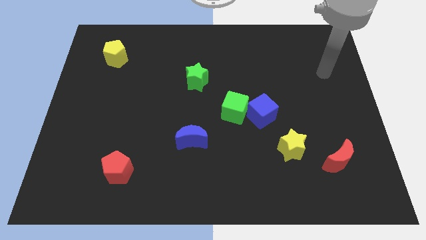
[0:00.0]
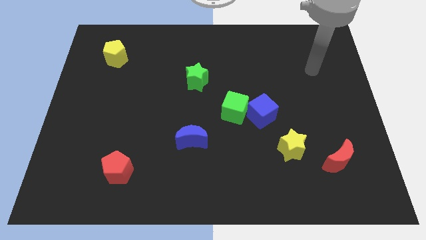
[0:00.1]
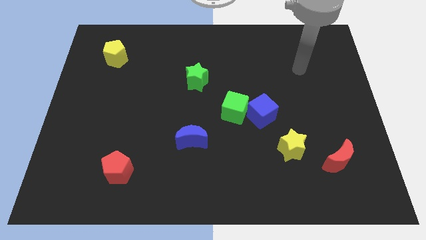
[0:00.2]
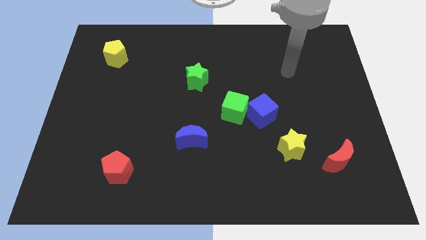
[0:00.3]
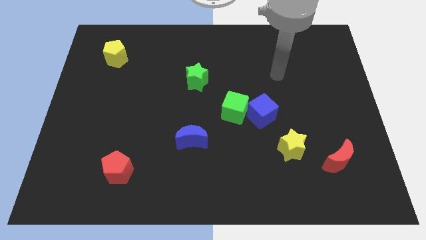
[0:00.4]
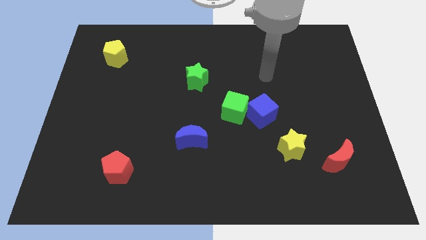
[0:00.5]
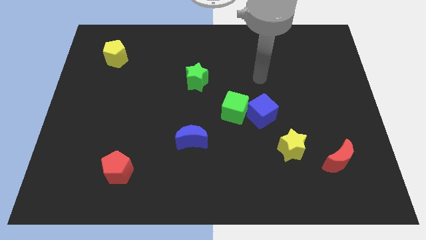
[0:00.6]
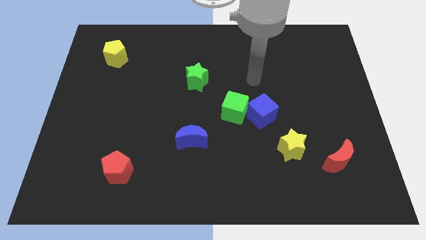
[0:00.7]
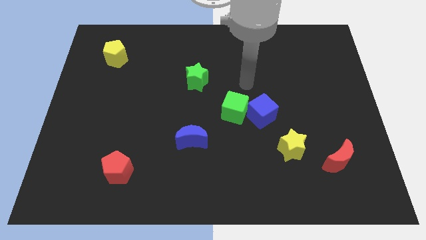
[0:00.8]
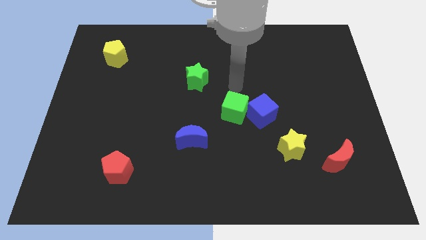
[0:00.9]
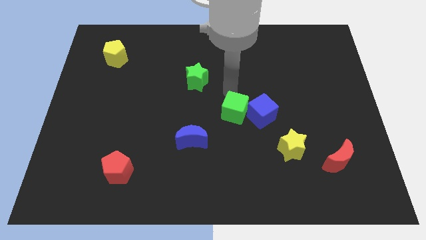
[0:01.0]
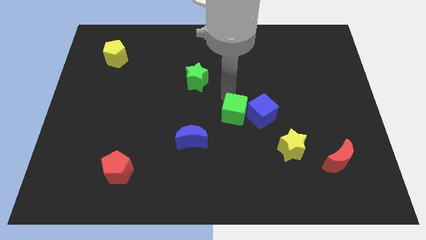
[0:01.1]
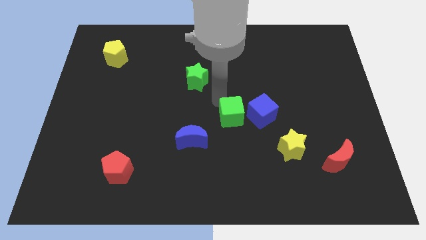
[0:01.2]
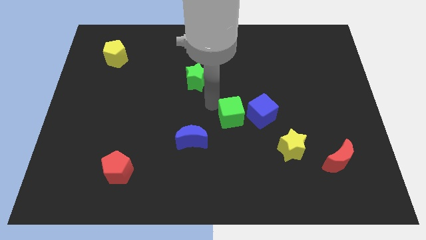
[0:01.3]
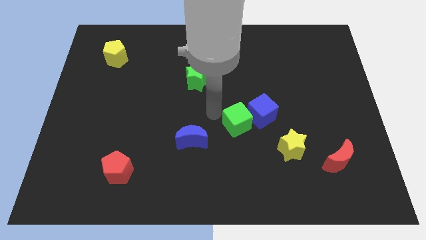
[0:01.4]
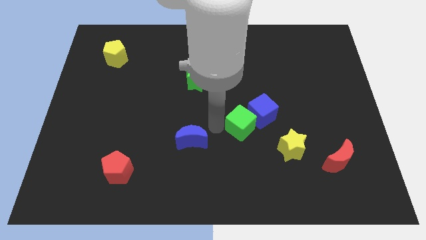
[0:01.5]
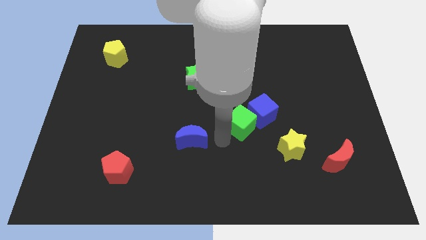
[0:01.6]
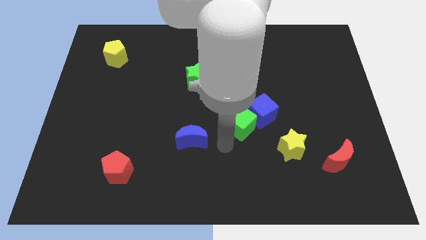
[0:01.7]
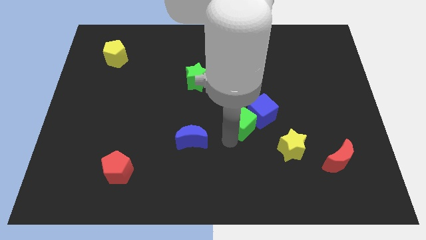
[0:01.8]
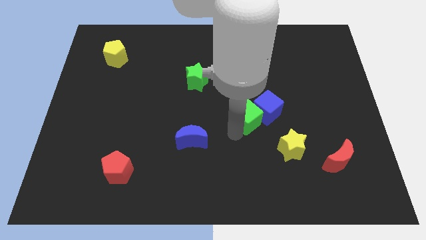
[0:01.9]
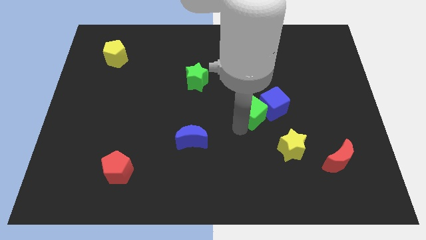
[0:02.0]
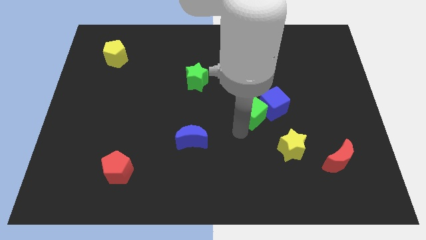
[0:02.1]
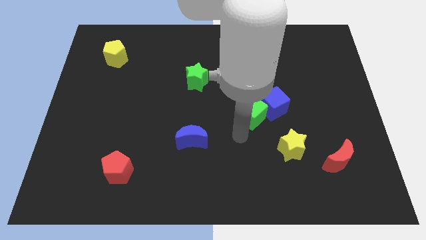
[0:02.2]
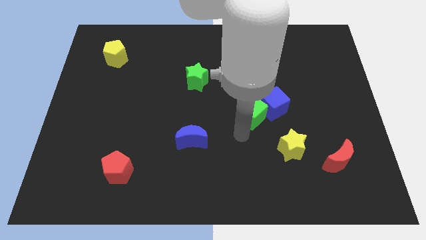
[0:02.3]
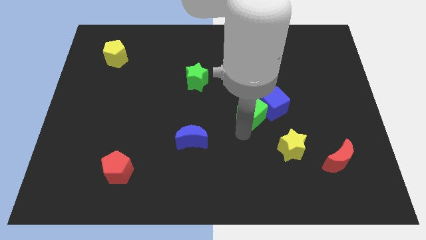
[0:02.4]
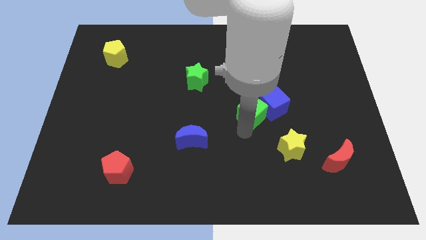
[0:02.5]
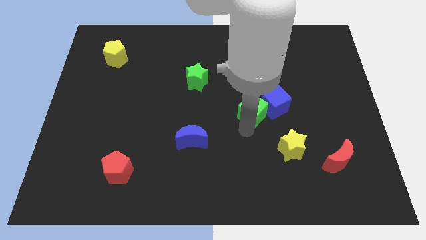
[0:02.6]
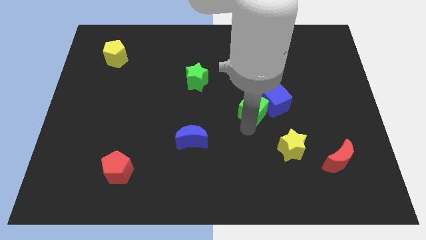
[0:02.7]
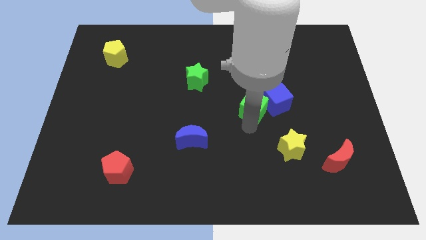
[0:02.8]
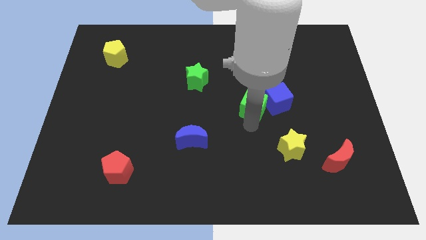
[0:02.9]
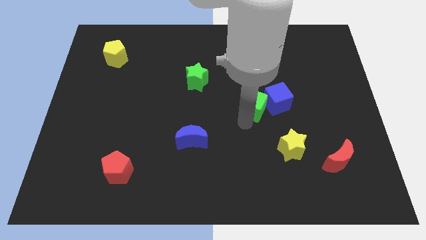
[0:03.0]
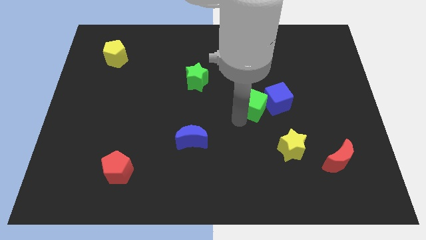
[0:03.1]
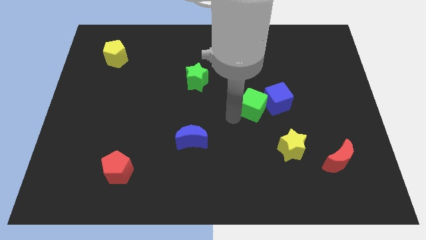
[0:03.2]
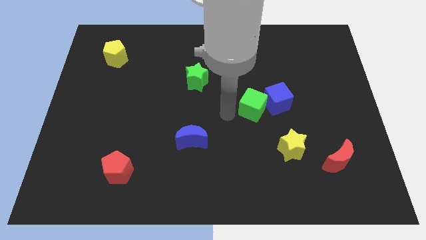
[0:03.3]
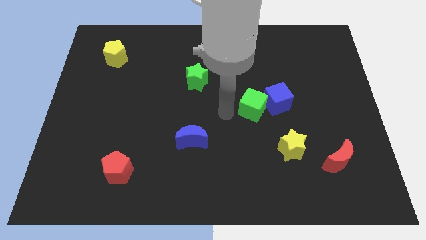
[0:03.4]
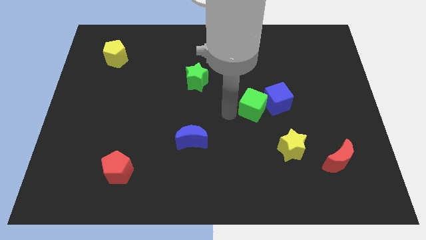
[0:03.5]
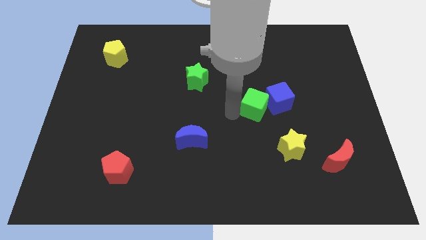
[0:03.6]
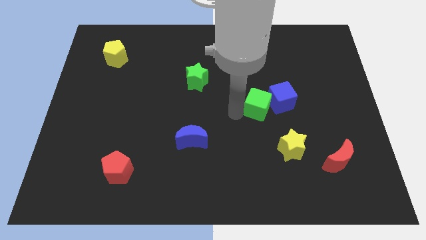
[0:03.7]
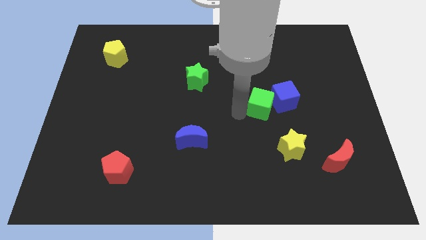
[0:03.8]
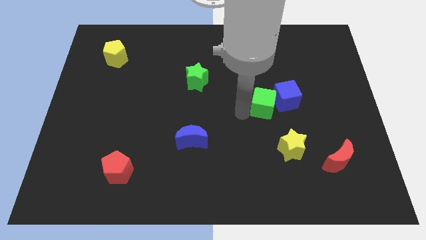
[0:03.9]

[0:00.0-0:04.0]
push the green cube right a little bit

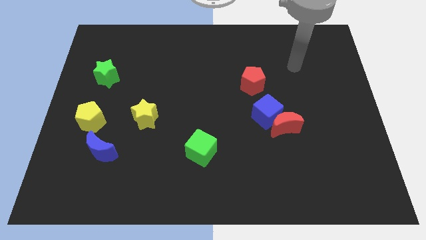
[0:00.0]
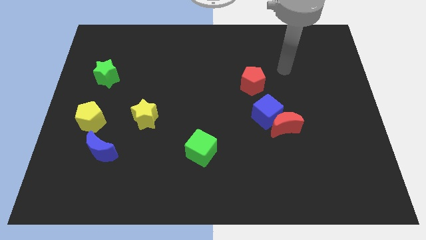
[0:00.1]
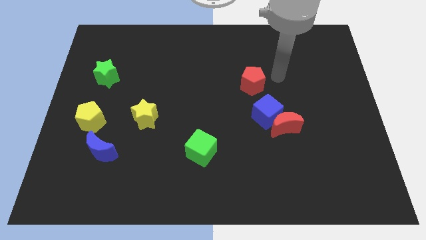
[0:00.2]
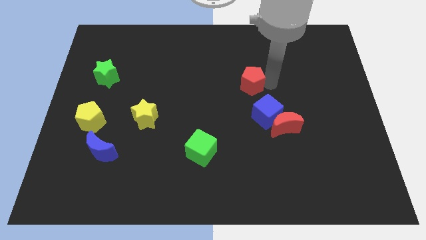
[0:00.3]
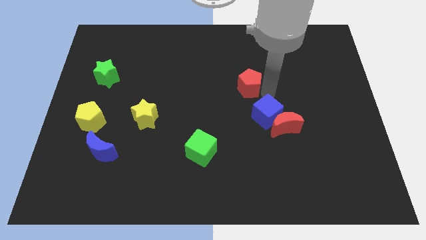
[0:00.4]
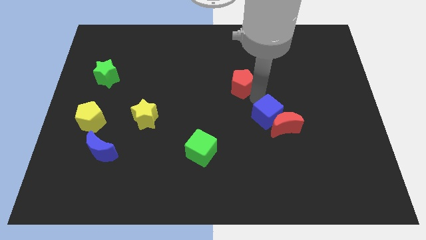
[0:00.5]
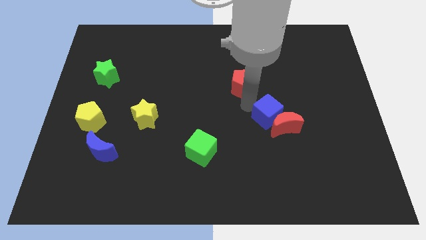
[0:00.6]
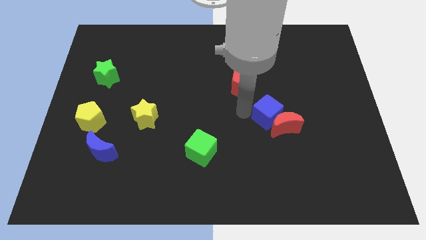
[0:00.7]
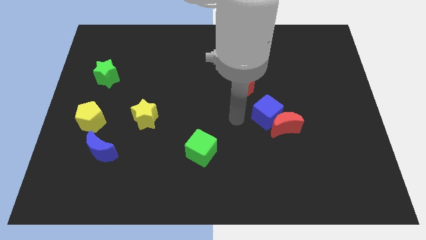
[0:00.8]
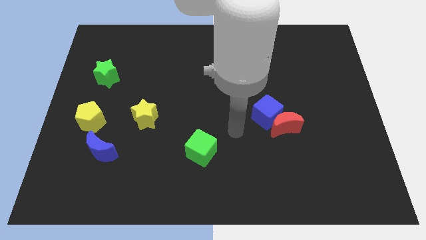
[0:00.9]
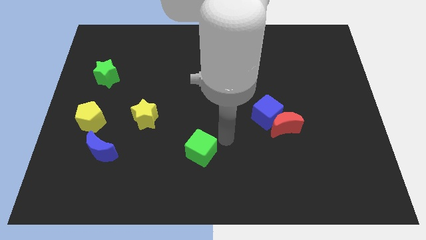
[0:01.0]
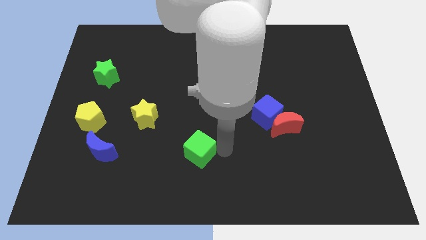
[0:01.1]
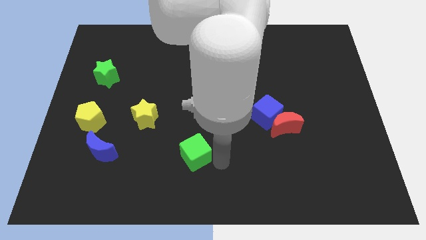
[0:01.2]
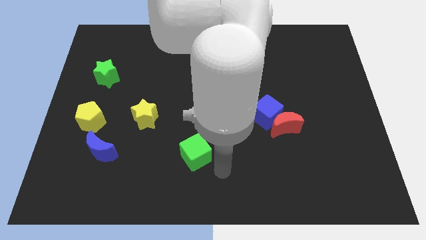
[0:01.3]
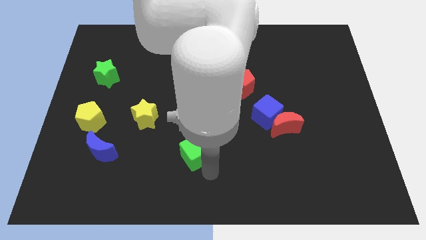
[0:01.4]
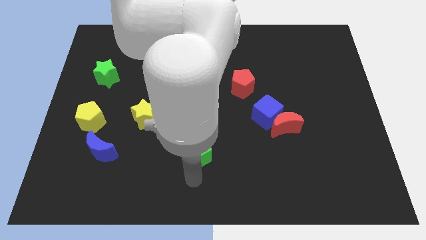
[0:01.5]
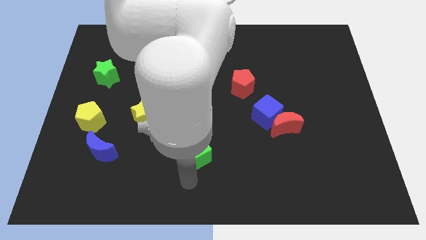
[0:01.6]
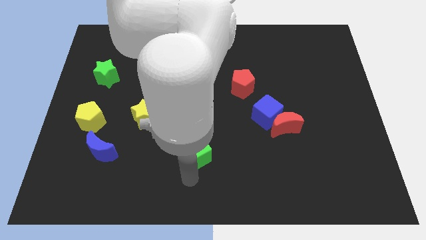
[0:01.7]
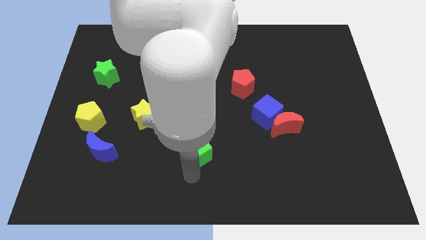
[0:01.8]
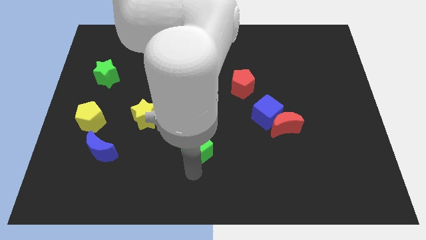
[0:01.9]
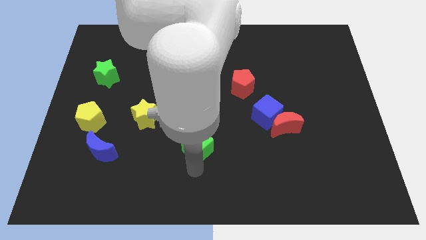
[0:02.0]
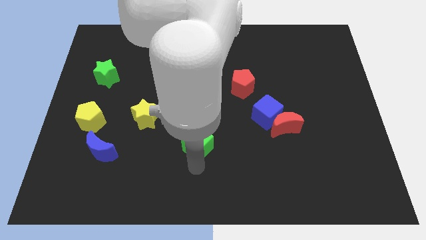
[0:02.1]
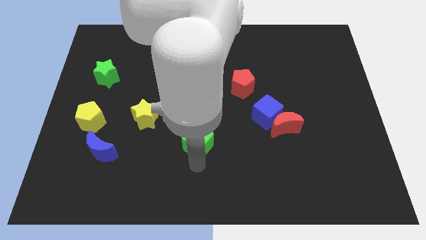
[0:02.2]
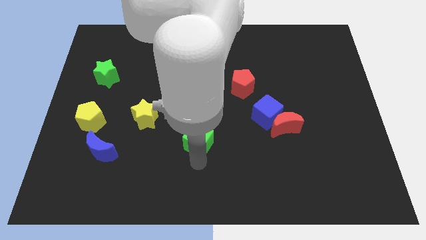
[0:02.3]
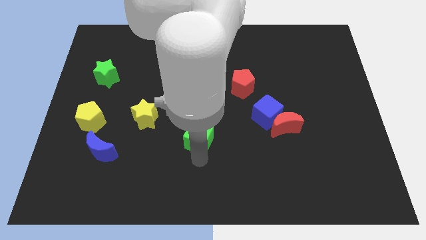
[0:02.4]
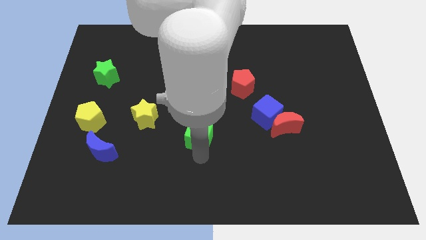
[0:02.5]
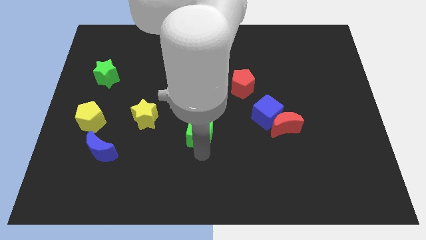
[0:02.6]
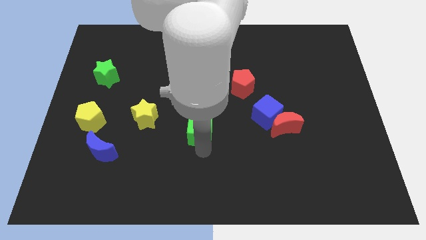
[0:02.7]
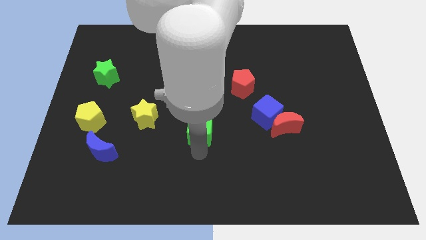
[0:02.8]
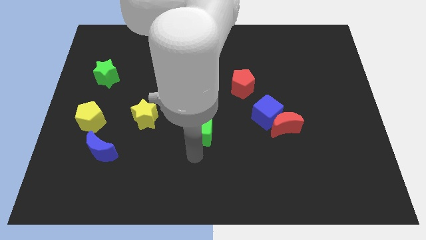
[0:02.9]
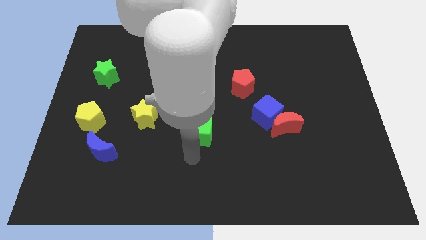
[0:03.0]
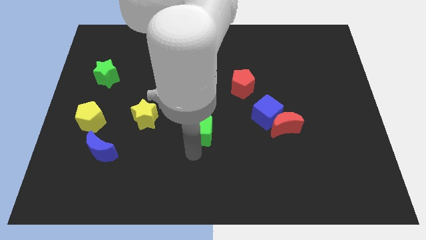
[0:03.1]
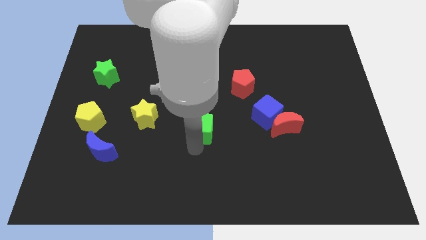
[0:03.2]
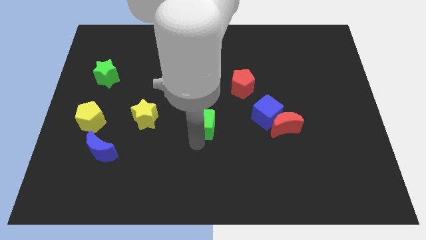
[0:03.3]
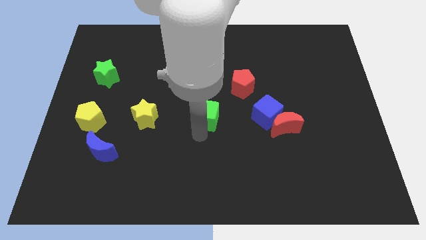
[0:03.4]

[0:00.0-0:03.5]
slightly move the green cube upwards

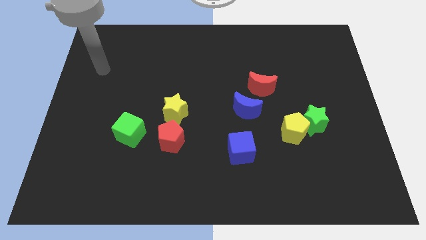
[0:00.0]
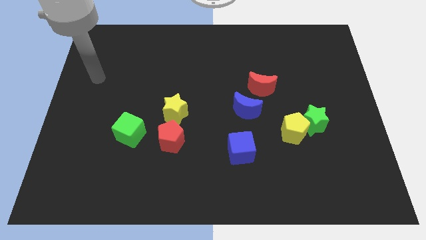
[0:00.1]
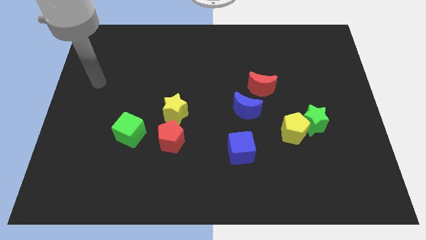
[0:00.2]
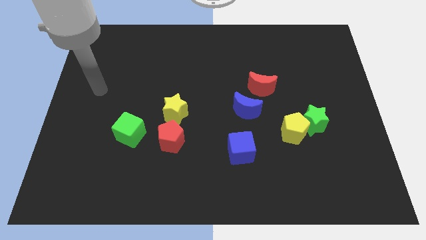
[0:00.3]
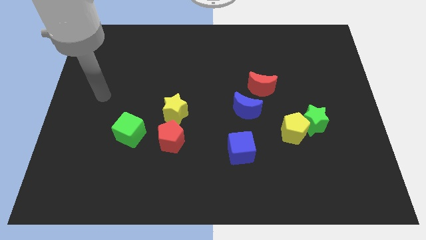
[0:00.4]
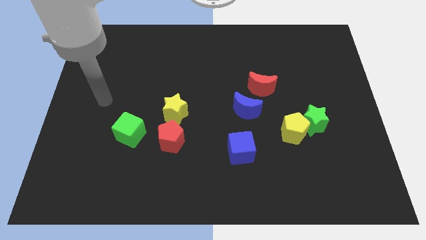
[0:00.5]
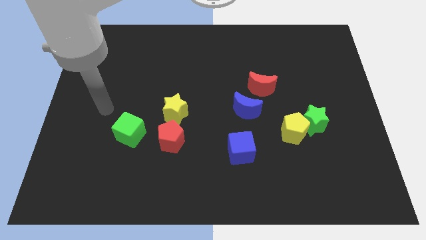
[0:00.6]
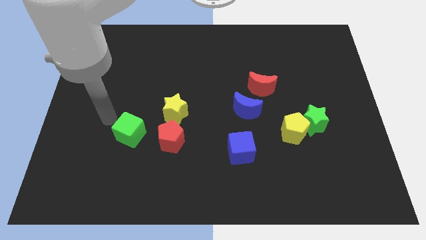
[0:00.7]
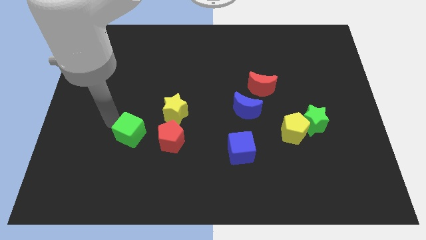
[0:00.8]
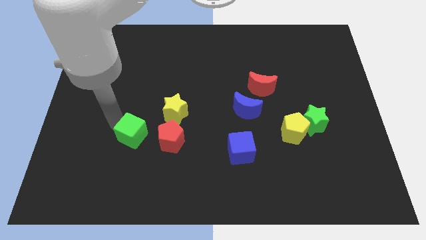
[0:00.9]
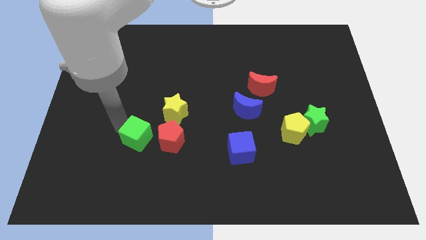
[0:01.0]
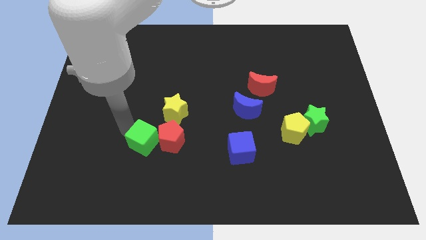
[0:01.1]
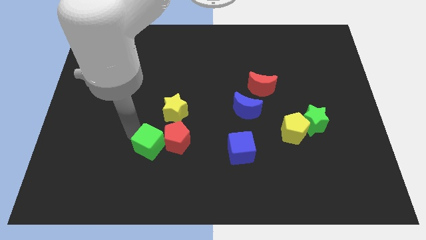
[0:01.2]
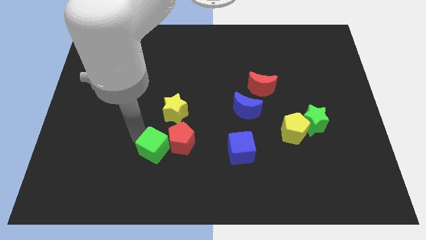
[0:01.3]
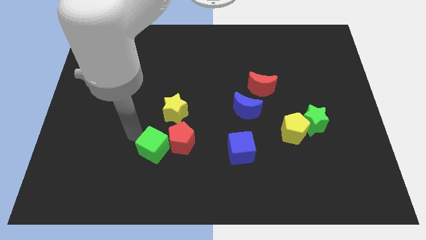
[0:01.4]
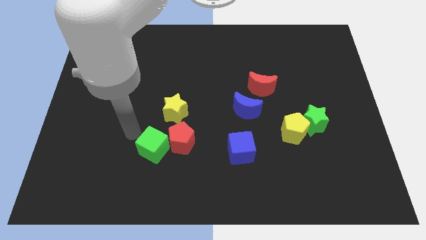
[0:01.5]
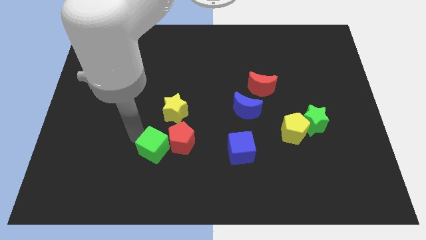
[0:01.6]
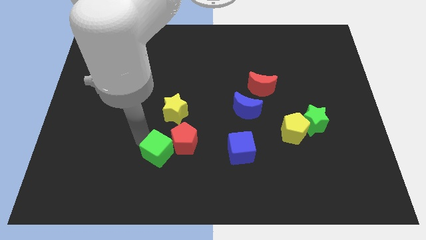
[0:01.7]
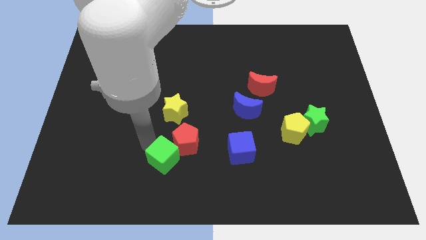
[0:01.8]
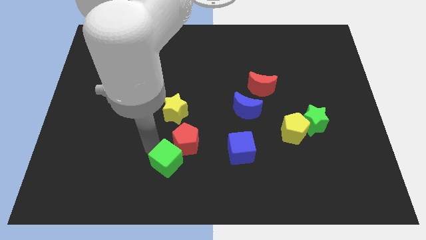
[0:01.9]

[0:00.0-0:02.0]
push the green cube slightly right
